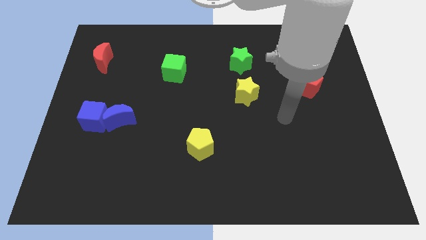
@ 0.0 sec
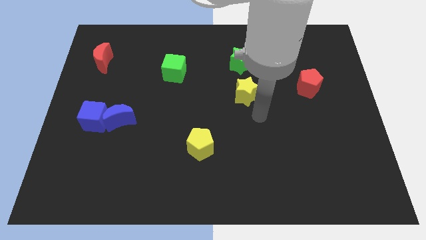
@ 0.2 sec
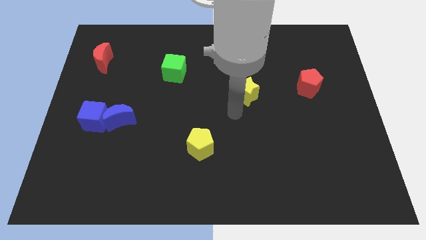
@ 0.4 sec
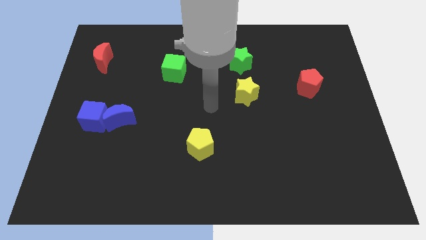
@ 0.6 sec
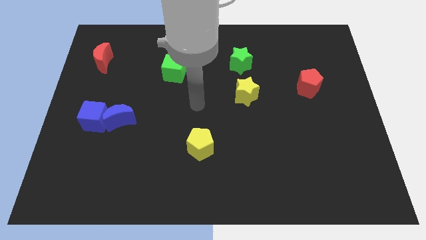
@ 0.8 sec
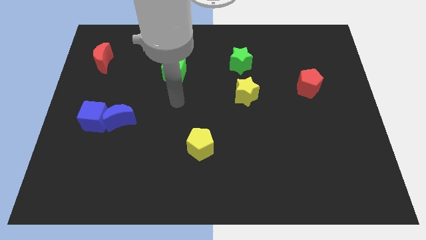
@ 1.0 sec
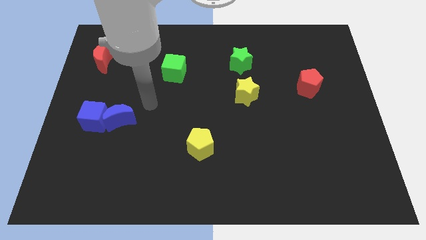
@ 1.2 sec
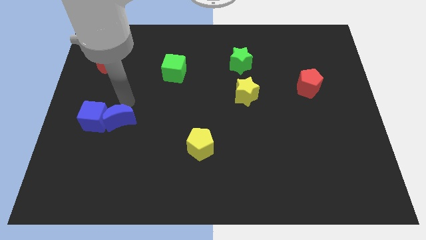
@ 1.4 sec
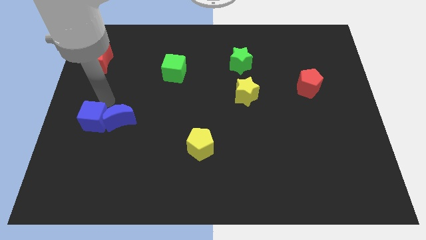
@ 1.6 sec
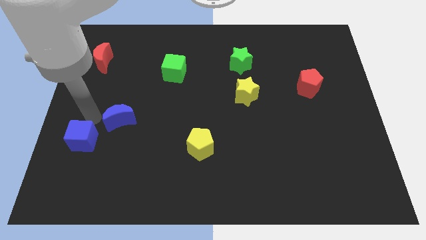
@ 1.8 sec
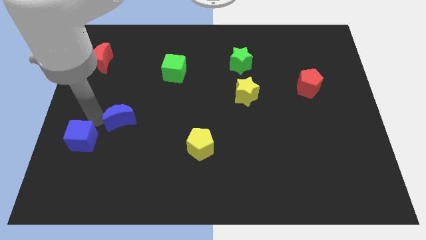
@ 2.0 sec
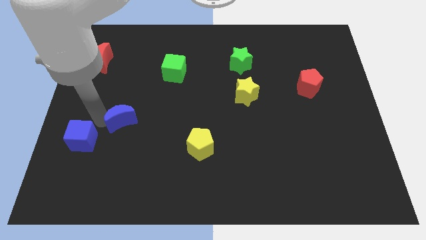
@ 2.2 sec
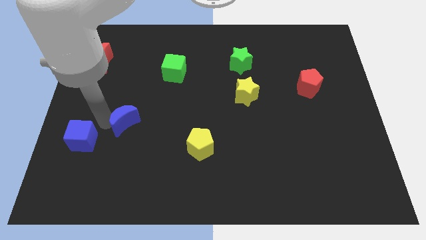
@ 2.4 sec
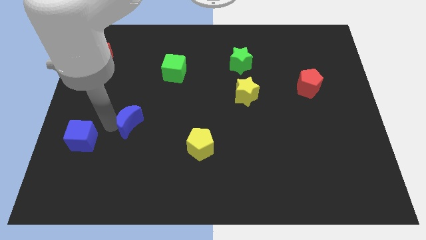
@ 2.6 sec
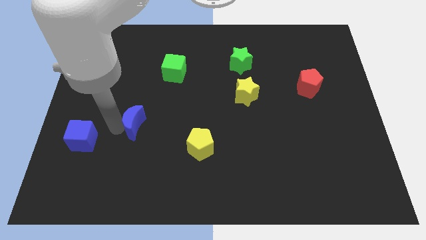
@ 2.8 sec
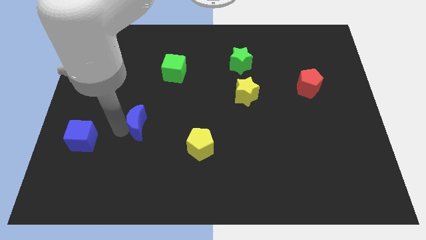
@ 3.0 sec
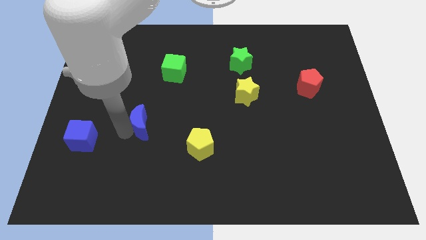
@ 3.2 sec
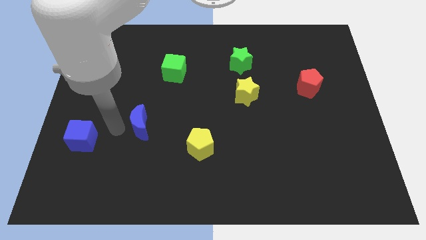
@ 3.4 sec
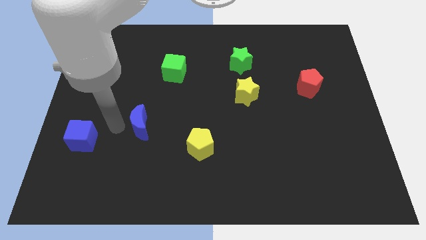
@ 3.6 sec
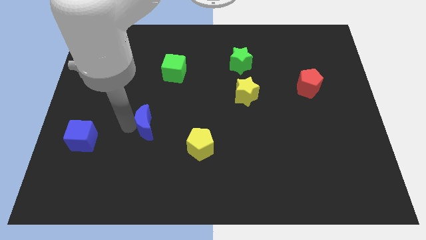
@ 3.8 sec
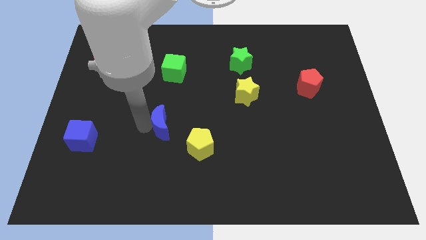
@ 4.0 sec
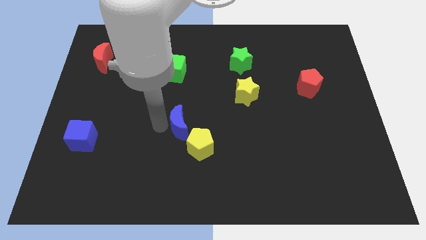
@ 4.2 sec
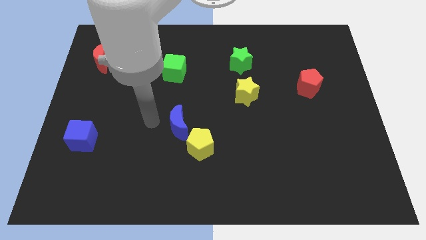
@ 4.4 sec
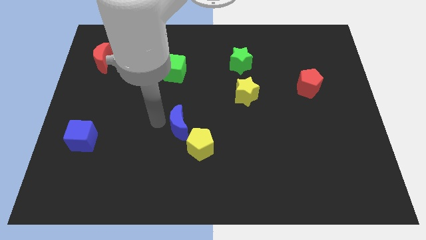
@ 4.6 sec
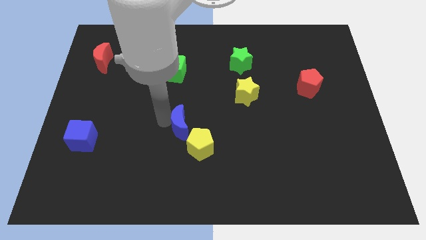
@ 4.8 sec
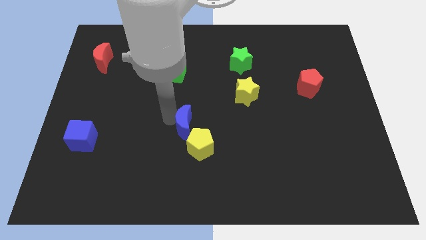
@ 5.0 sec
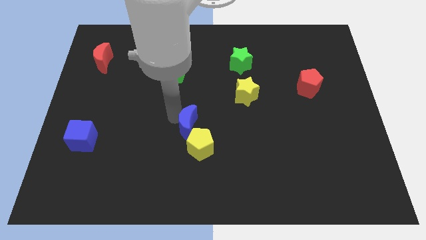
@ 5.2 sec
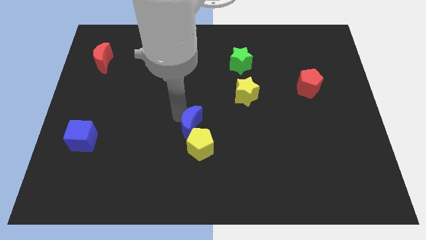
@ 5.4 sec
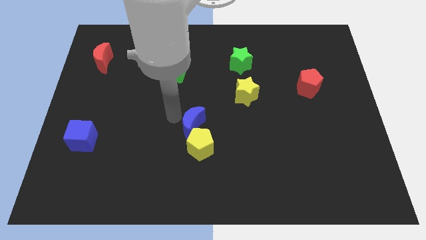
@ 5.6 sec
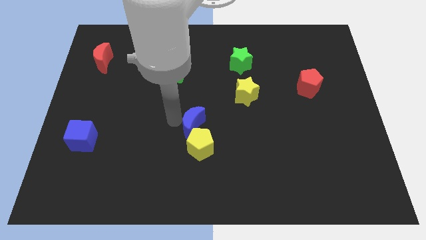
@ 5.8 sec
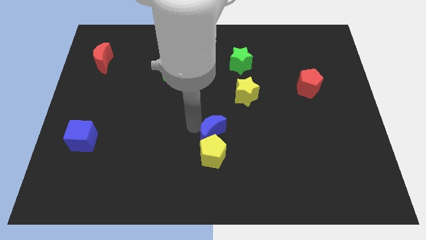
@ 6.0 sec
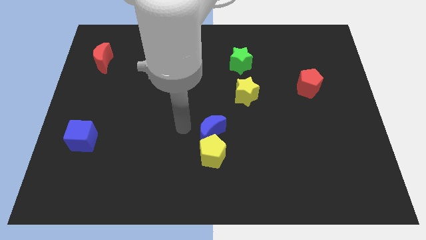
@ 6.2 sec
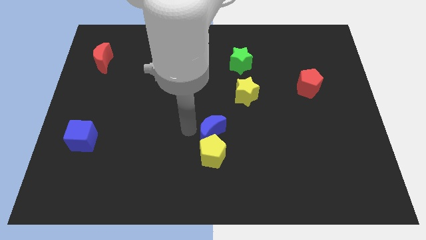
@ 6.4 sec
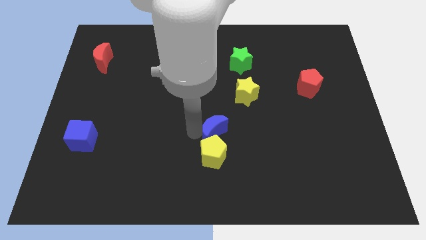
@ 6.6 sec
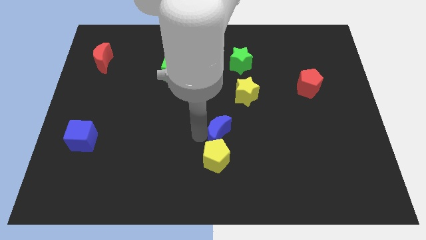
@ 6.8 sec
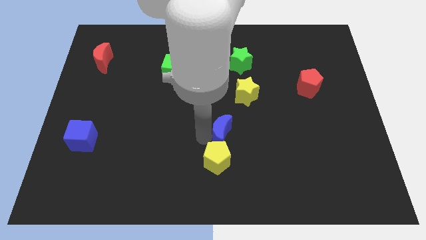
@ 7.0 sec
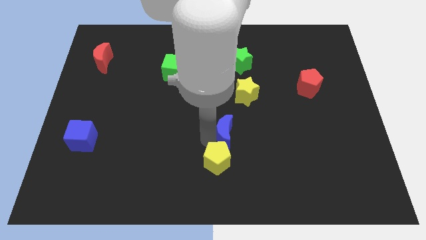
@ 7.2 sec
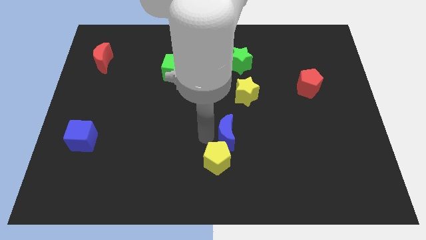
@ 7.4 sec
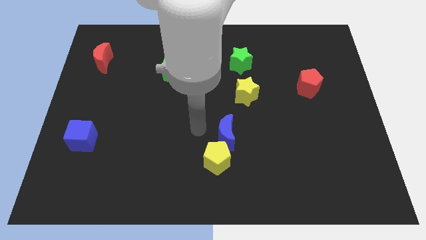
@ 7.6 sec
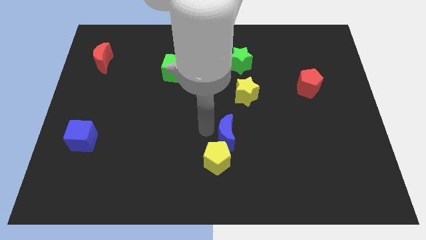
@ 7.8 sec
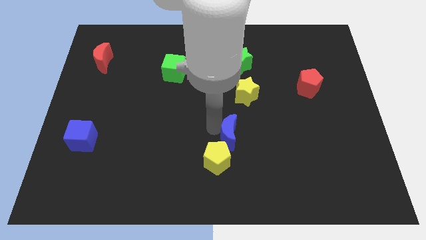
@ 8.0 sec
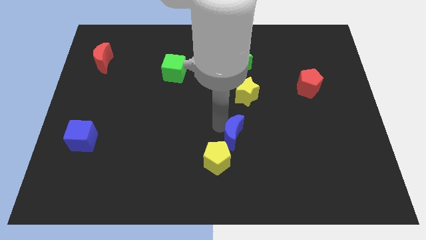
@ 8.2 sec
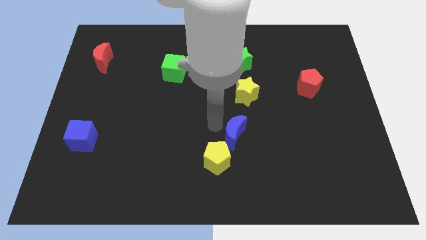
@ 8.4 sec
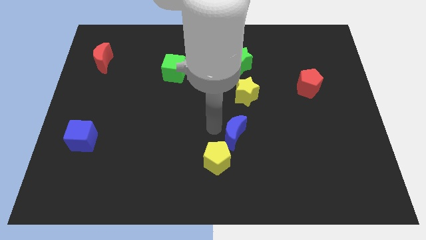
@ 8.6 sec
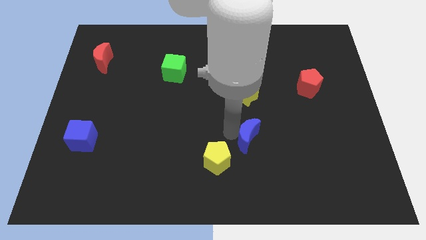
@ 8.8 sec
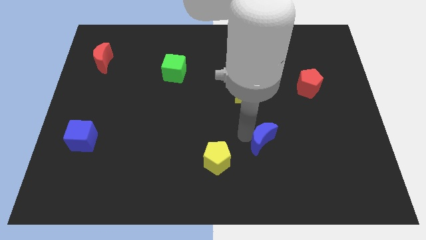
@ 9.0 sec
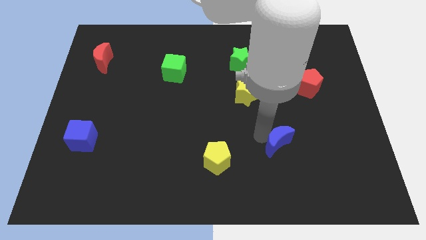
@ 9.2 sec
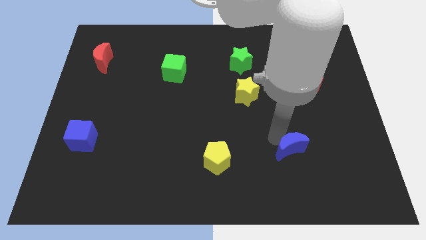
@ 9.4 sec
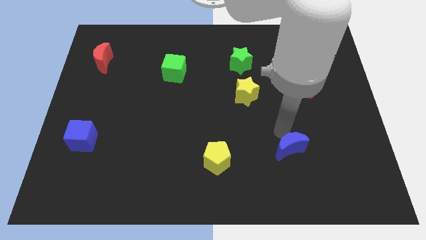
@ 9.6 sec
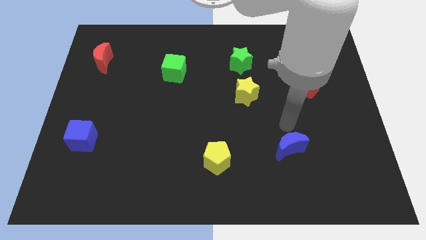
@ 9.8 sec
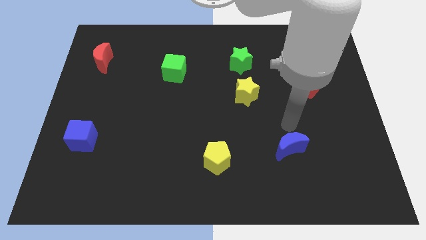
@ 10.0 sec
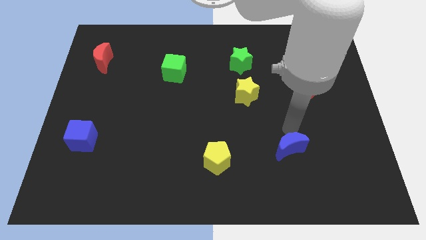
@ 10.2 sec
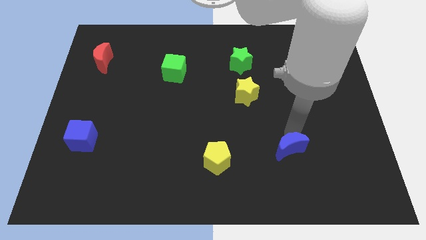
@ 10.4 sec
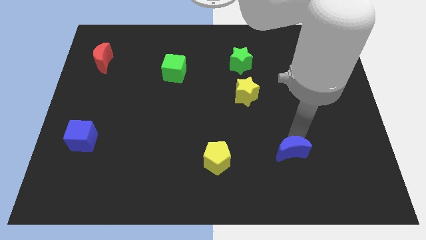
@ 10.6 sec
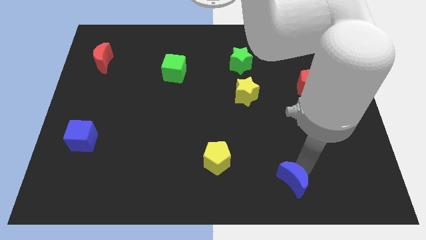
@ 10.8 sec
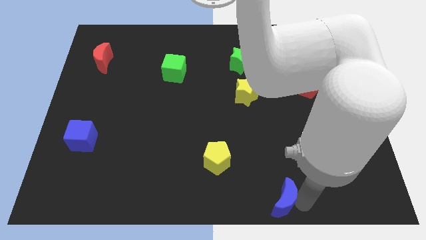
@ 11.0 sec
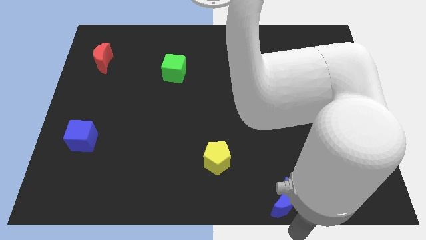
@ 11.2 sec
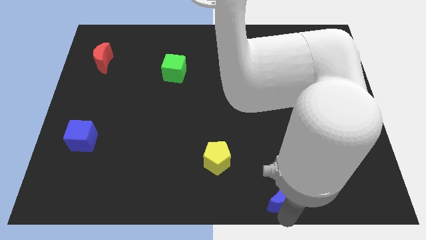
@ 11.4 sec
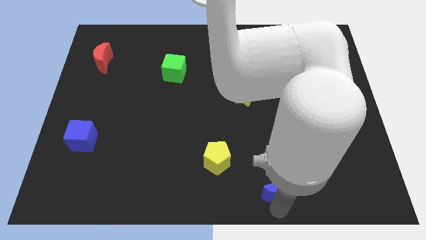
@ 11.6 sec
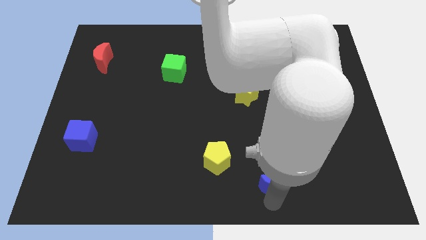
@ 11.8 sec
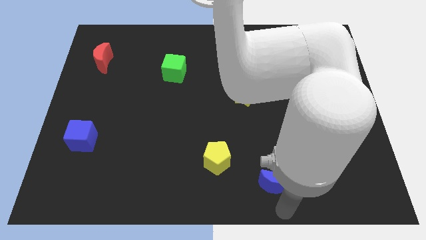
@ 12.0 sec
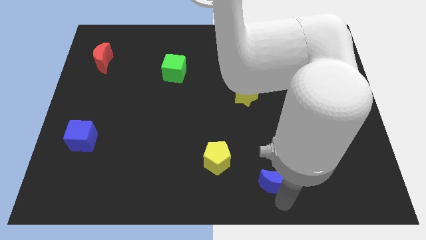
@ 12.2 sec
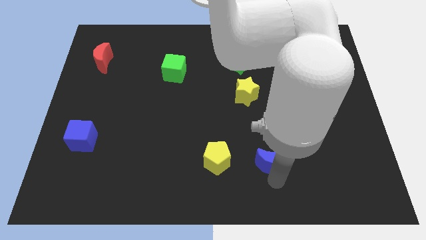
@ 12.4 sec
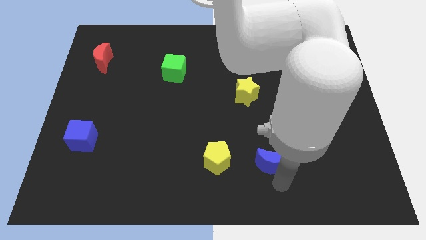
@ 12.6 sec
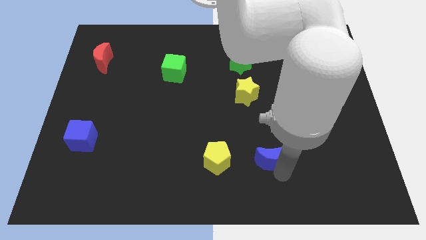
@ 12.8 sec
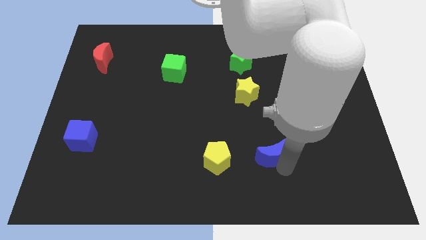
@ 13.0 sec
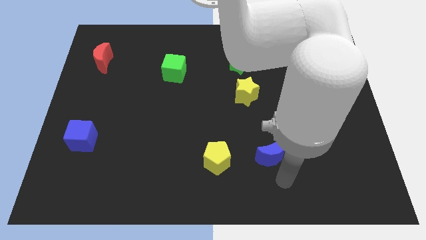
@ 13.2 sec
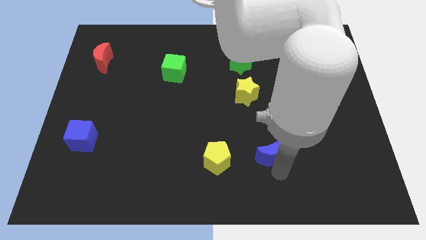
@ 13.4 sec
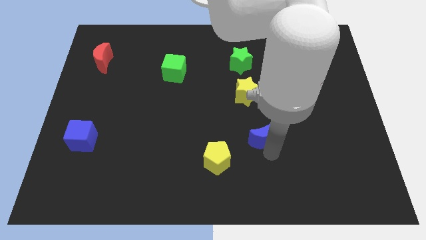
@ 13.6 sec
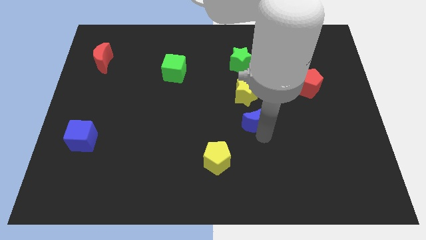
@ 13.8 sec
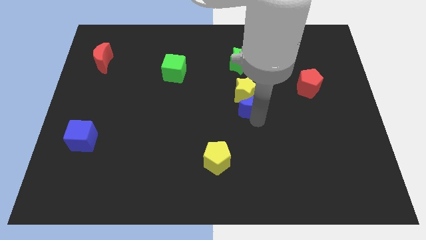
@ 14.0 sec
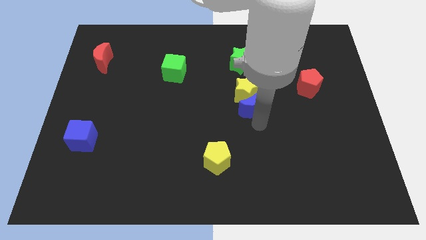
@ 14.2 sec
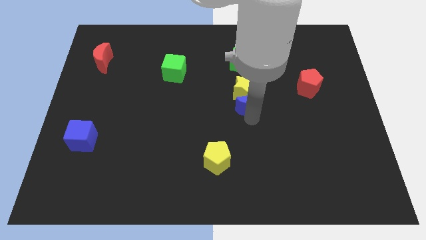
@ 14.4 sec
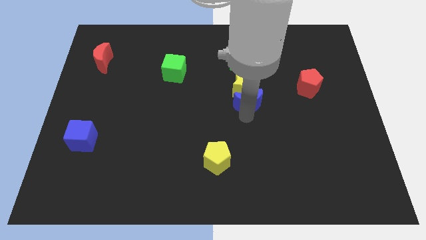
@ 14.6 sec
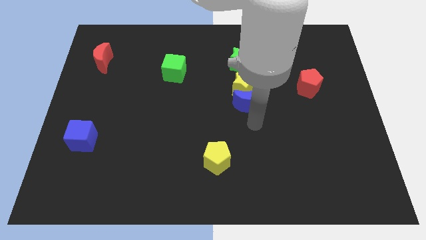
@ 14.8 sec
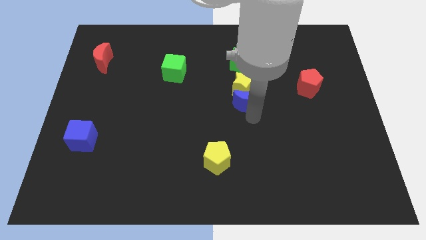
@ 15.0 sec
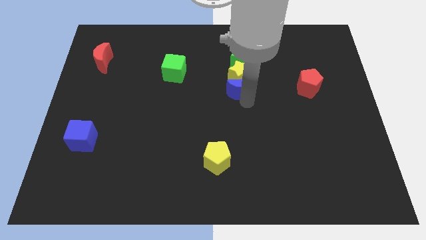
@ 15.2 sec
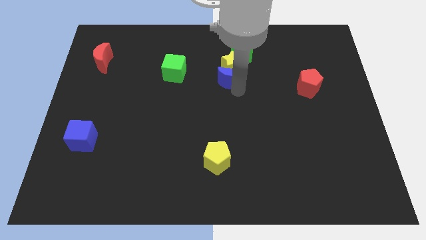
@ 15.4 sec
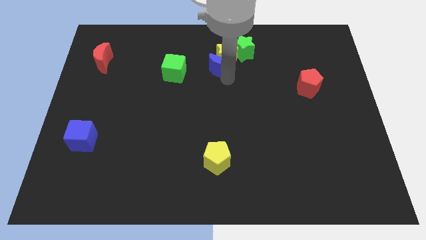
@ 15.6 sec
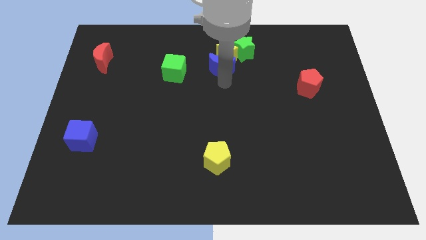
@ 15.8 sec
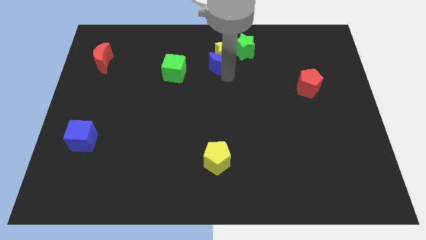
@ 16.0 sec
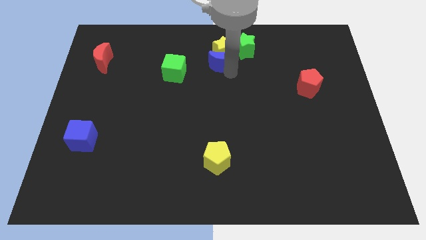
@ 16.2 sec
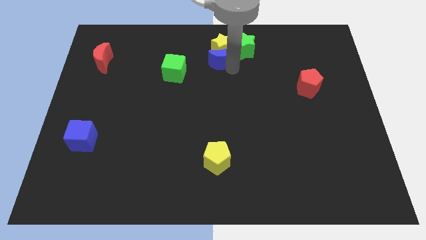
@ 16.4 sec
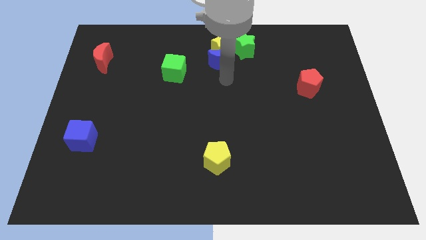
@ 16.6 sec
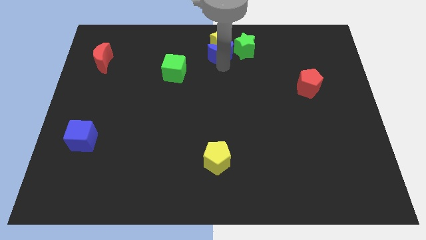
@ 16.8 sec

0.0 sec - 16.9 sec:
slide the blue moon to the top
